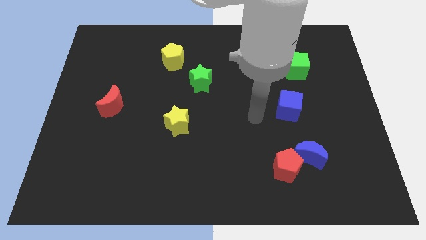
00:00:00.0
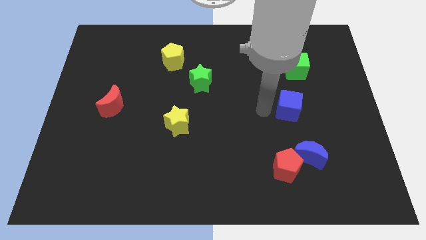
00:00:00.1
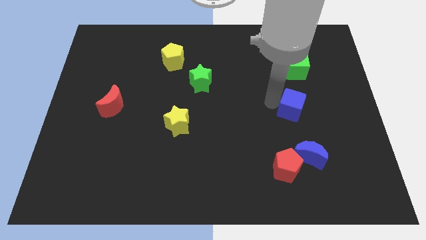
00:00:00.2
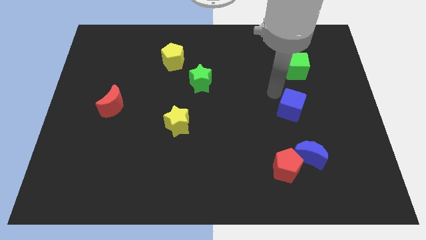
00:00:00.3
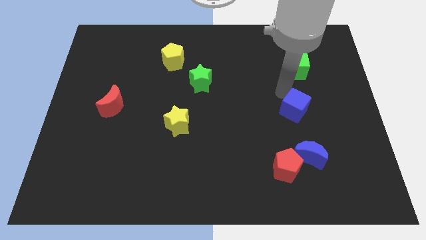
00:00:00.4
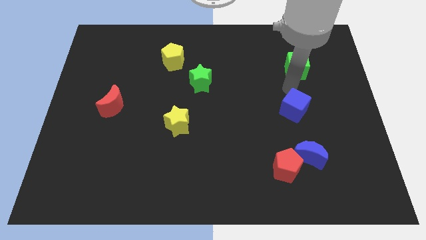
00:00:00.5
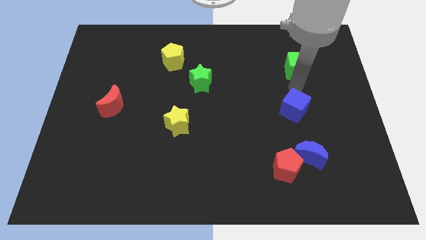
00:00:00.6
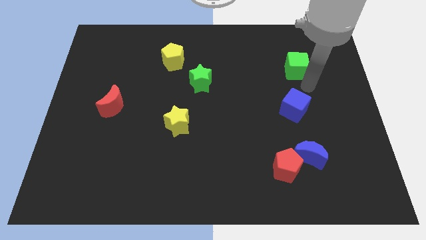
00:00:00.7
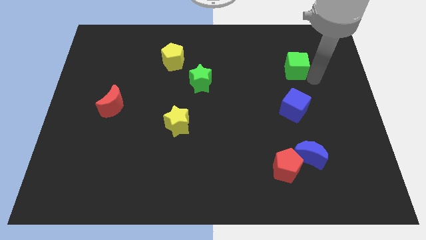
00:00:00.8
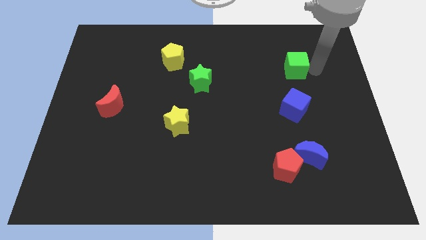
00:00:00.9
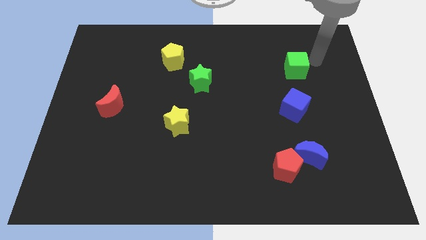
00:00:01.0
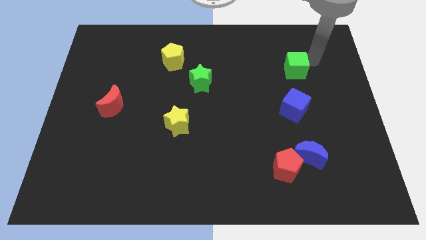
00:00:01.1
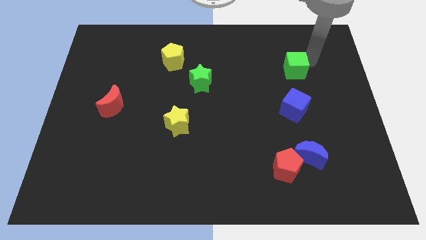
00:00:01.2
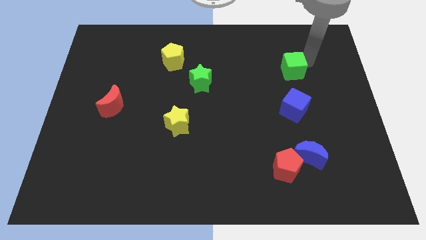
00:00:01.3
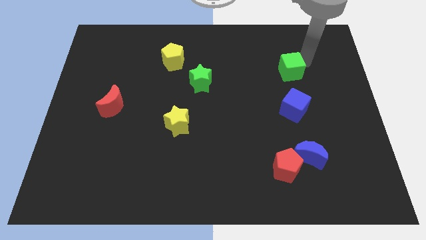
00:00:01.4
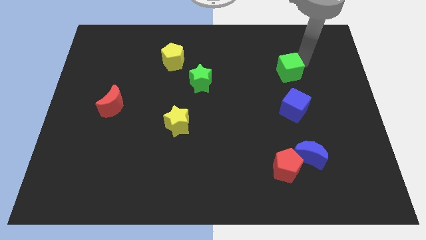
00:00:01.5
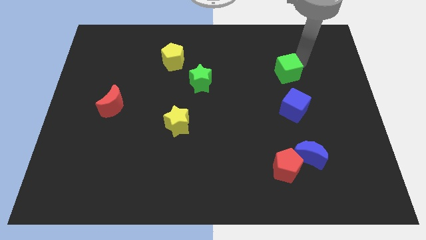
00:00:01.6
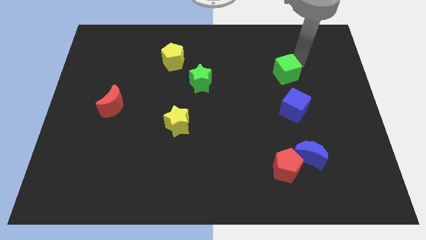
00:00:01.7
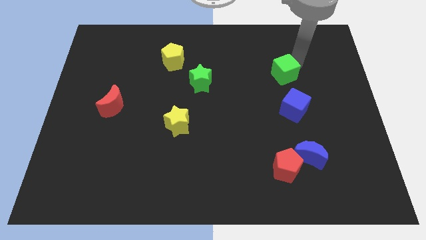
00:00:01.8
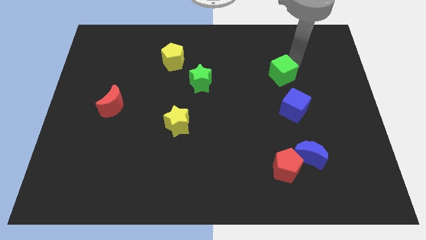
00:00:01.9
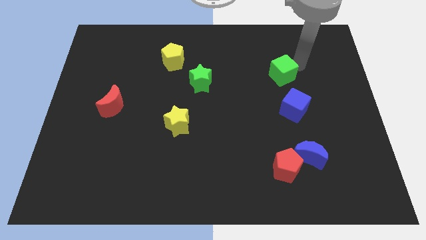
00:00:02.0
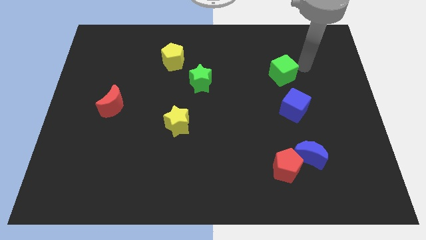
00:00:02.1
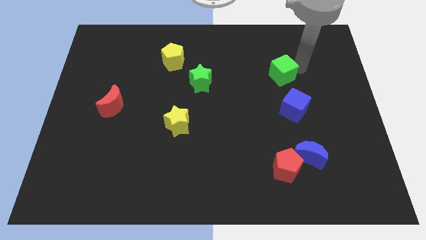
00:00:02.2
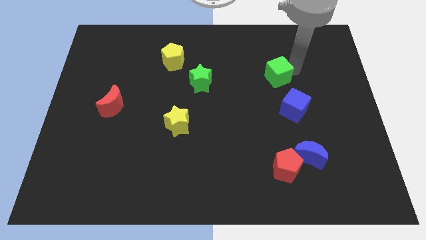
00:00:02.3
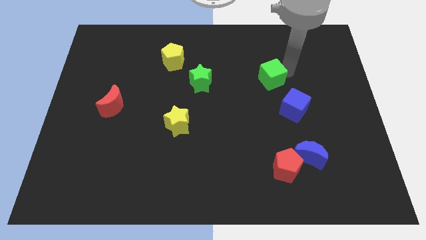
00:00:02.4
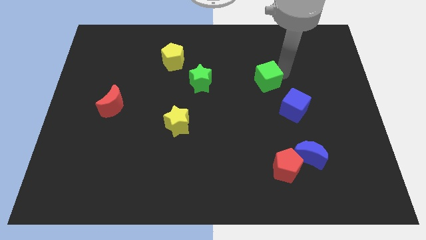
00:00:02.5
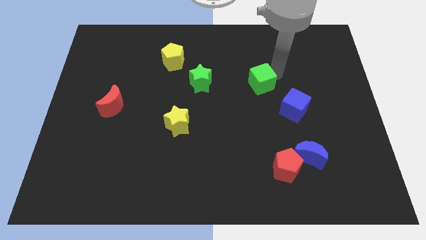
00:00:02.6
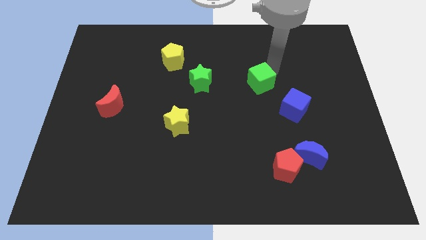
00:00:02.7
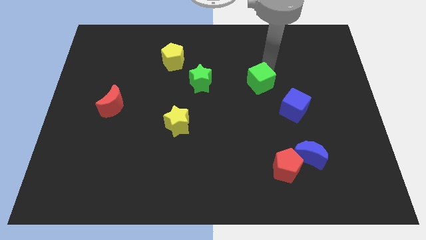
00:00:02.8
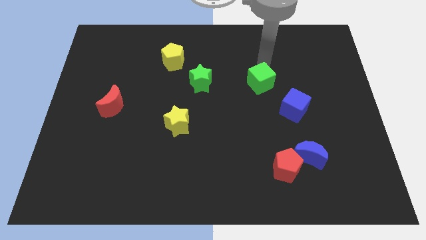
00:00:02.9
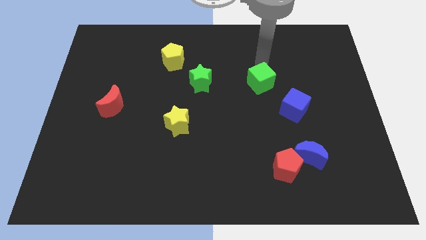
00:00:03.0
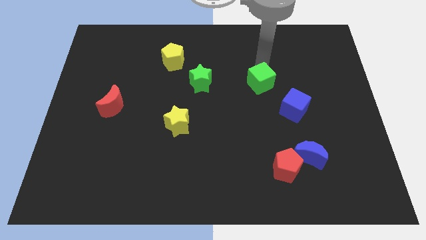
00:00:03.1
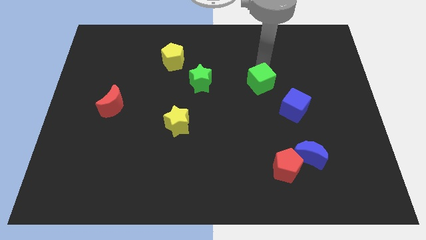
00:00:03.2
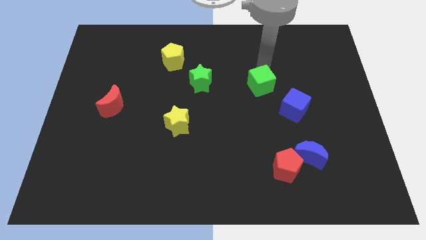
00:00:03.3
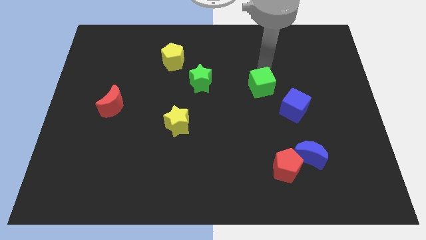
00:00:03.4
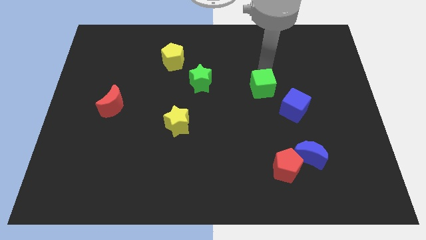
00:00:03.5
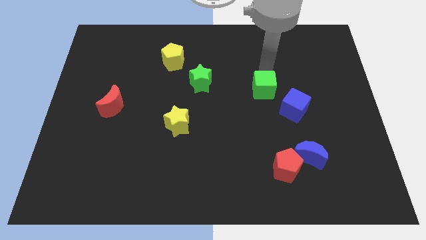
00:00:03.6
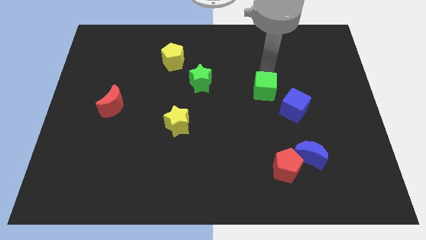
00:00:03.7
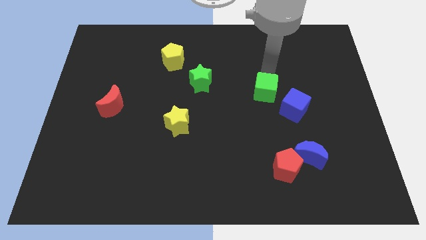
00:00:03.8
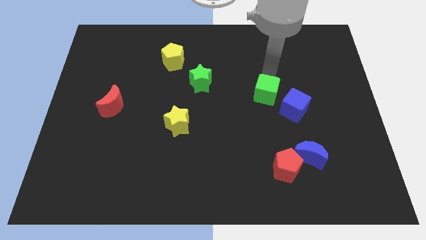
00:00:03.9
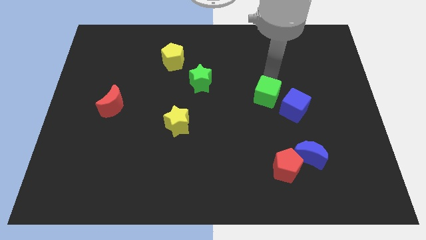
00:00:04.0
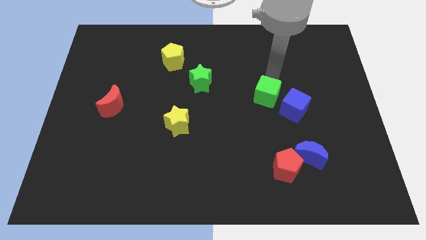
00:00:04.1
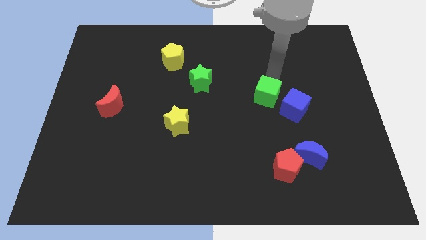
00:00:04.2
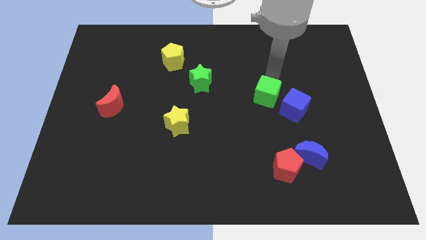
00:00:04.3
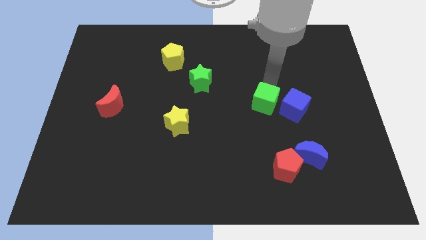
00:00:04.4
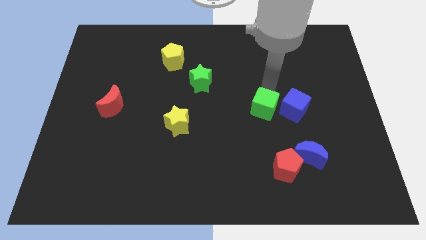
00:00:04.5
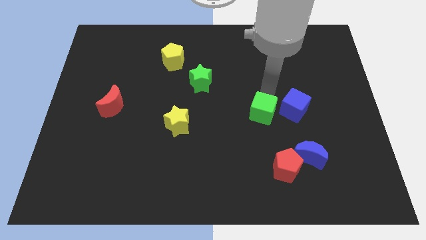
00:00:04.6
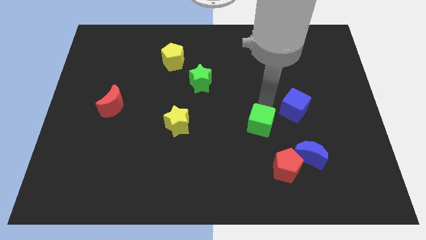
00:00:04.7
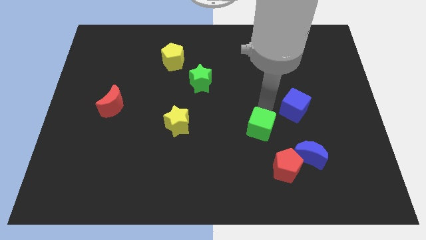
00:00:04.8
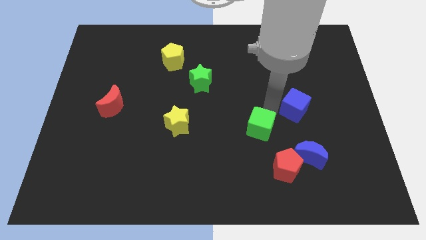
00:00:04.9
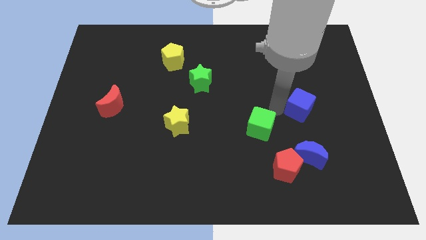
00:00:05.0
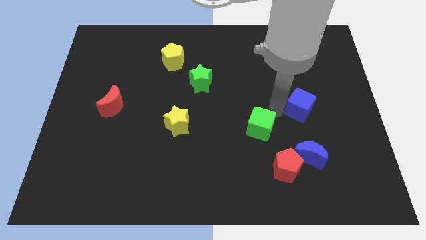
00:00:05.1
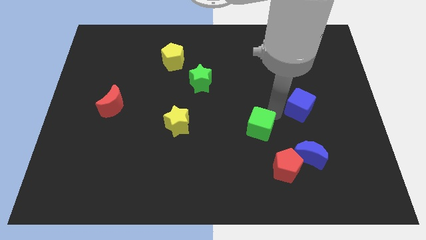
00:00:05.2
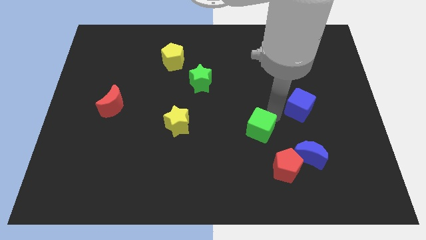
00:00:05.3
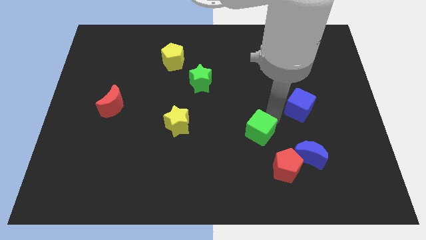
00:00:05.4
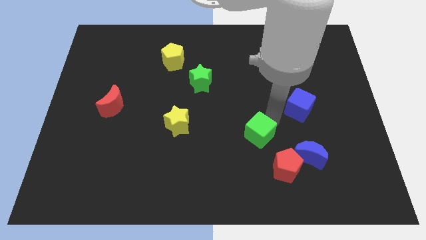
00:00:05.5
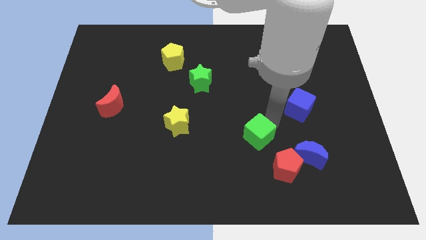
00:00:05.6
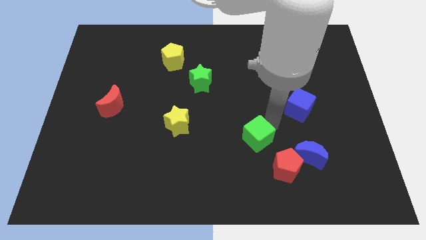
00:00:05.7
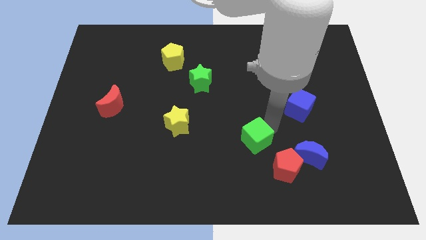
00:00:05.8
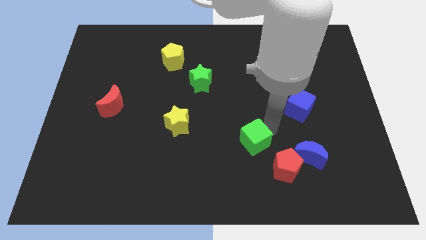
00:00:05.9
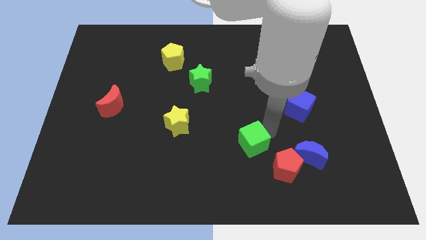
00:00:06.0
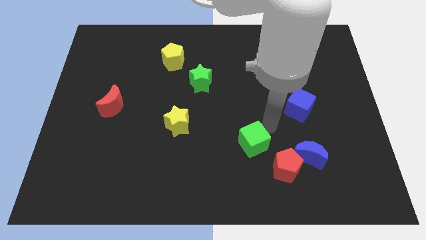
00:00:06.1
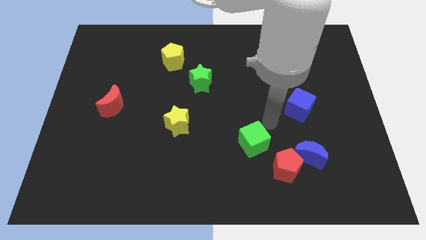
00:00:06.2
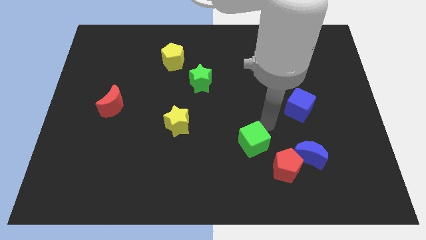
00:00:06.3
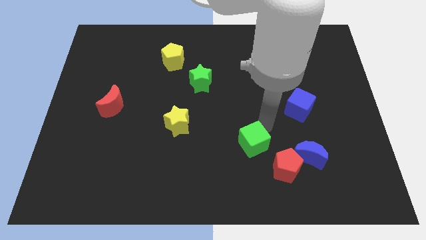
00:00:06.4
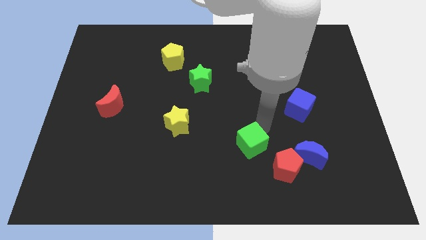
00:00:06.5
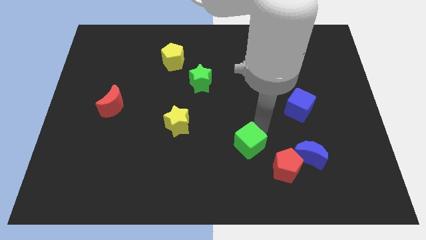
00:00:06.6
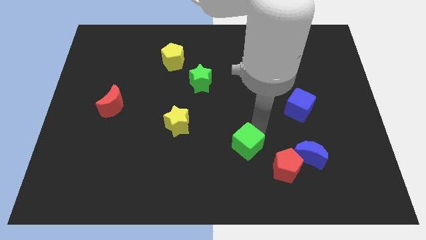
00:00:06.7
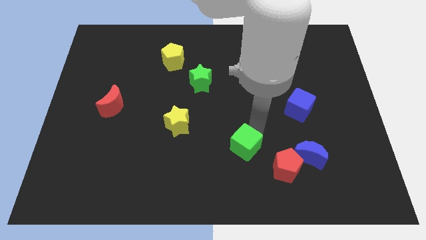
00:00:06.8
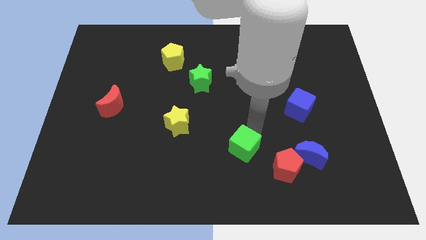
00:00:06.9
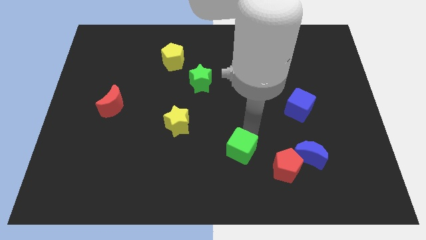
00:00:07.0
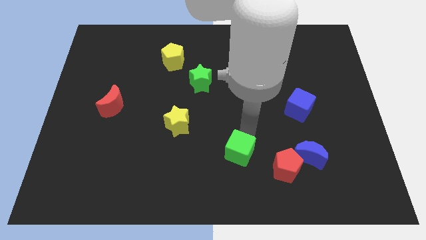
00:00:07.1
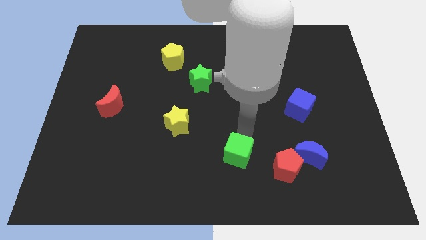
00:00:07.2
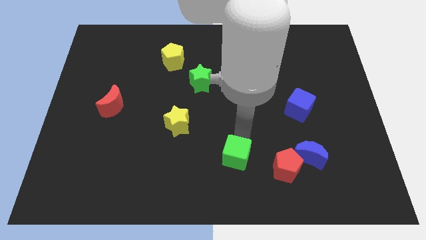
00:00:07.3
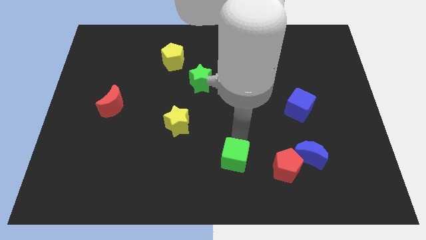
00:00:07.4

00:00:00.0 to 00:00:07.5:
move the green cube to the bottom side
